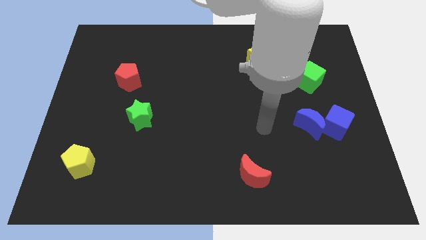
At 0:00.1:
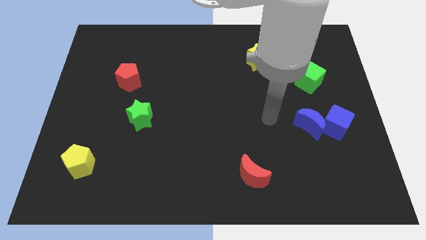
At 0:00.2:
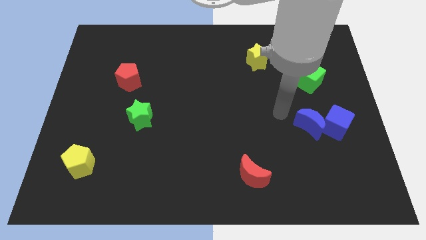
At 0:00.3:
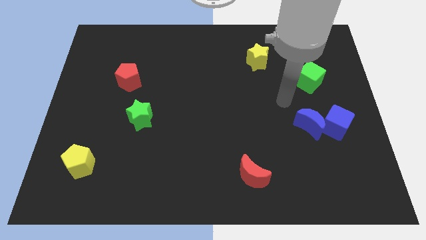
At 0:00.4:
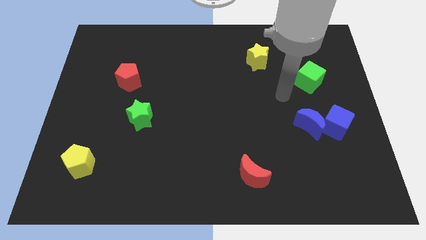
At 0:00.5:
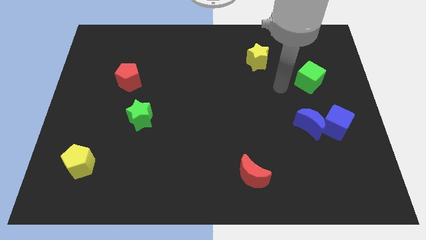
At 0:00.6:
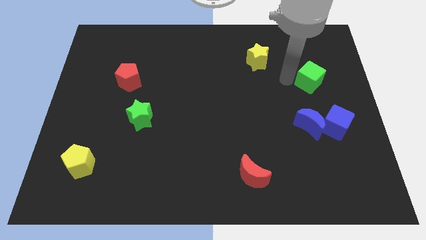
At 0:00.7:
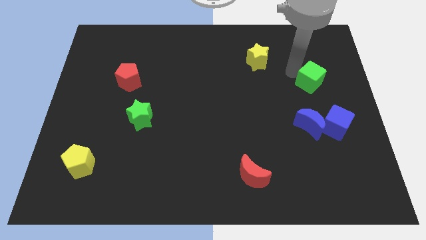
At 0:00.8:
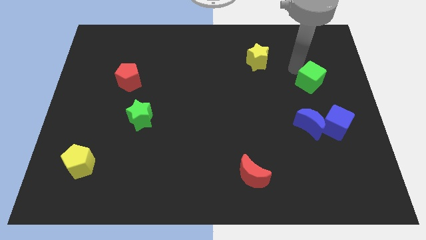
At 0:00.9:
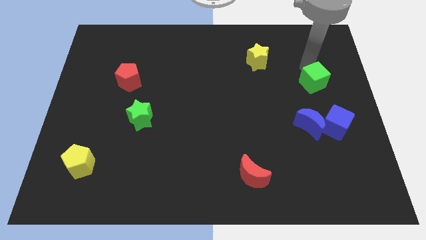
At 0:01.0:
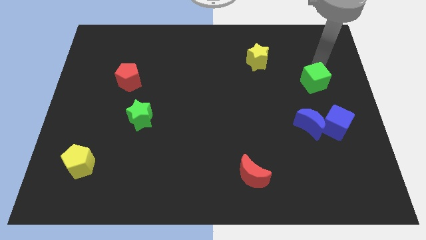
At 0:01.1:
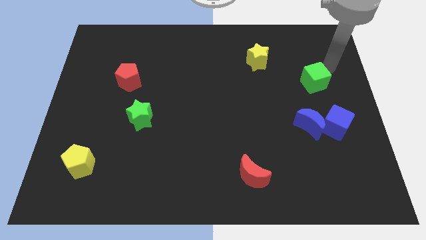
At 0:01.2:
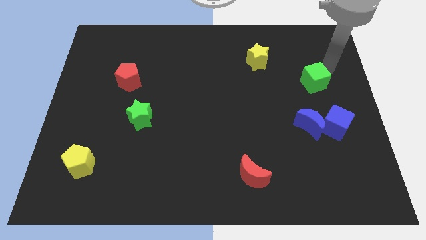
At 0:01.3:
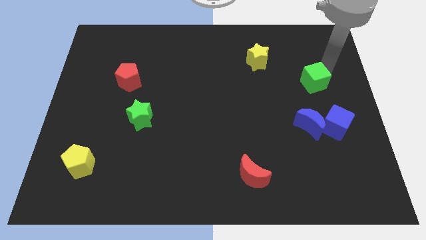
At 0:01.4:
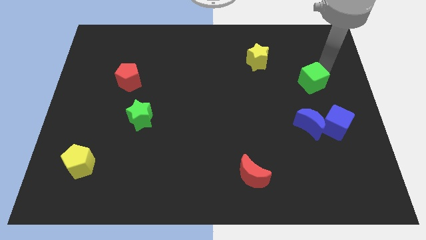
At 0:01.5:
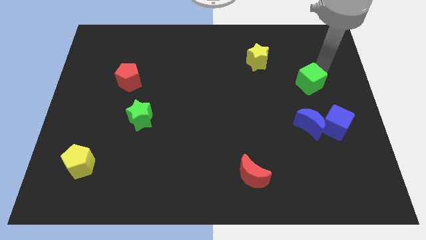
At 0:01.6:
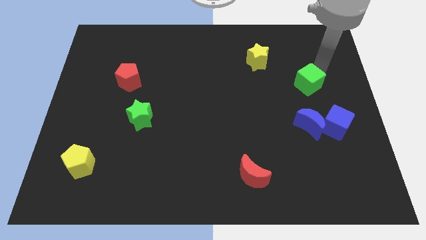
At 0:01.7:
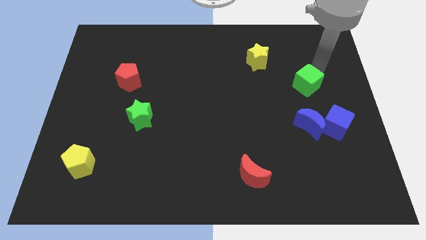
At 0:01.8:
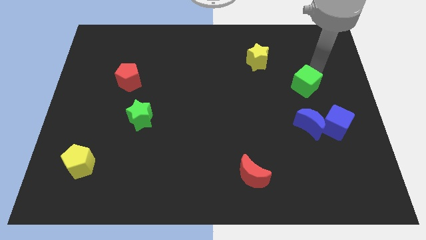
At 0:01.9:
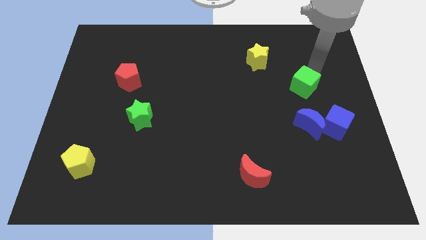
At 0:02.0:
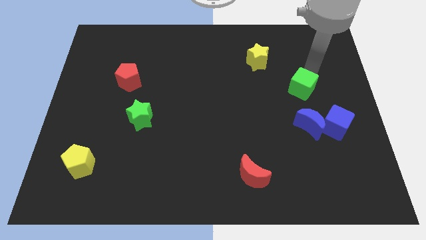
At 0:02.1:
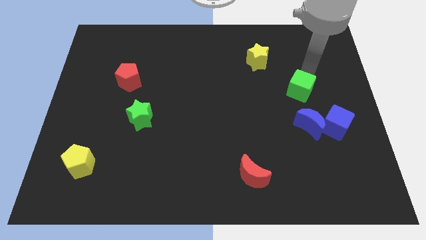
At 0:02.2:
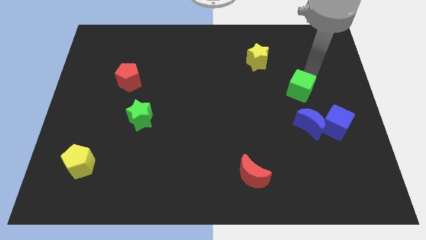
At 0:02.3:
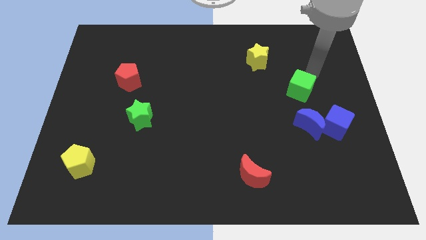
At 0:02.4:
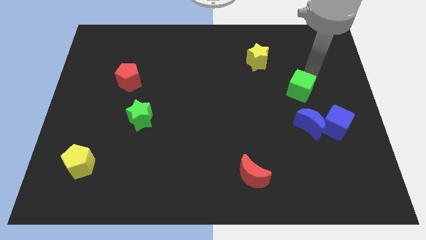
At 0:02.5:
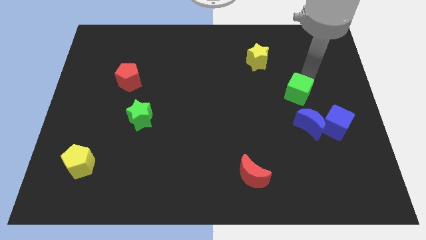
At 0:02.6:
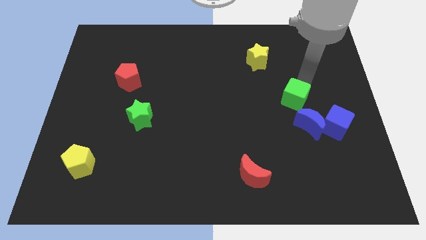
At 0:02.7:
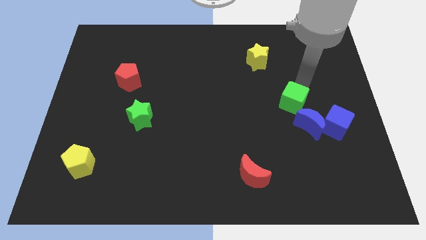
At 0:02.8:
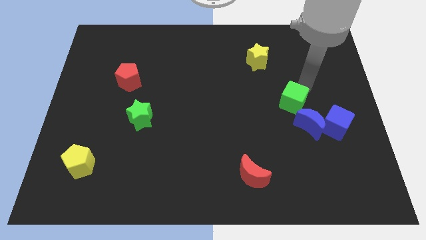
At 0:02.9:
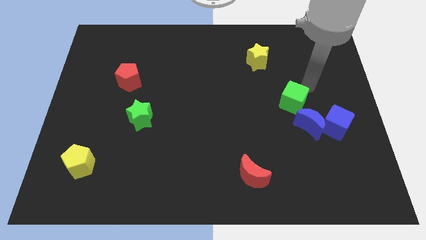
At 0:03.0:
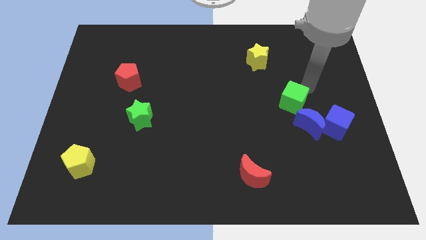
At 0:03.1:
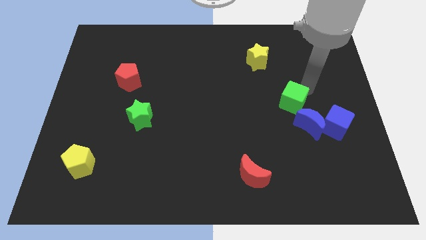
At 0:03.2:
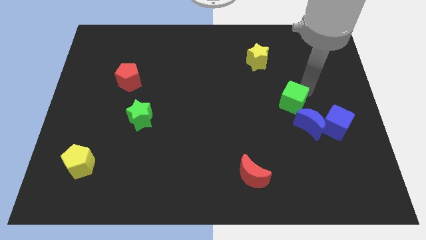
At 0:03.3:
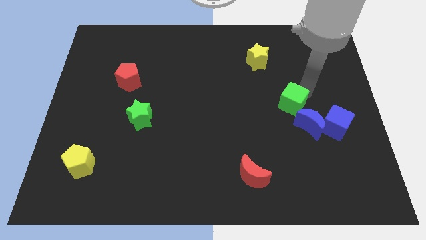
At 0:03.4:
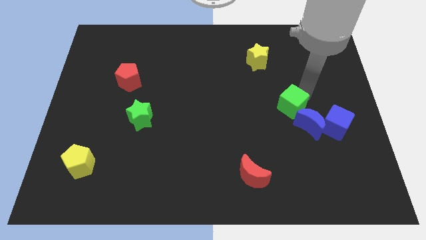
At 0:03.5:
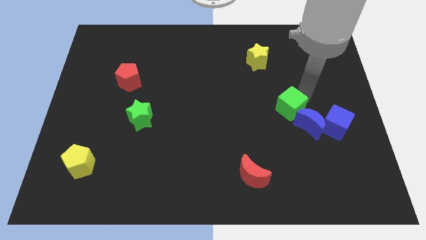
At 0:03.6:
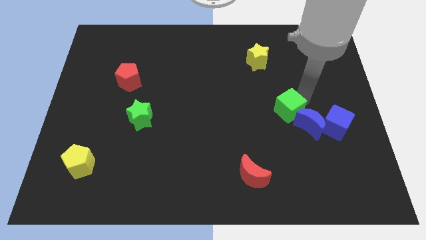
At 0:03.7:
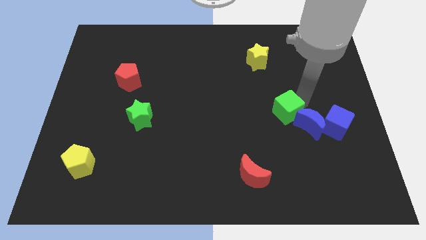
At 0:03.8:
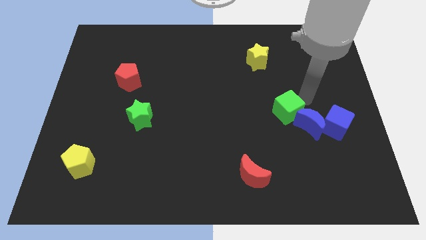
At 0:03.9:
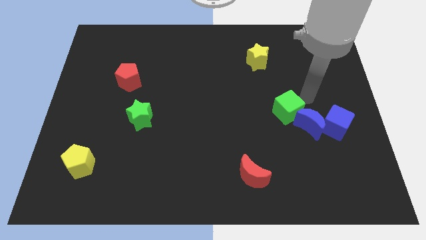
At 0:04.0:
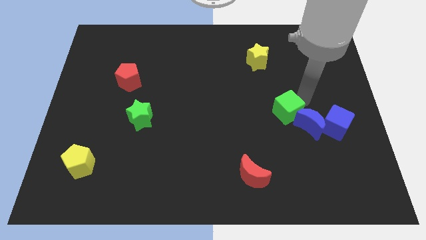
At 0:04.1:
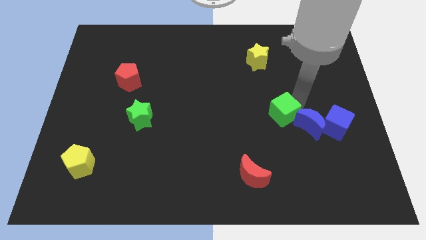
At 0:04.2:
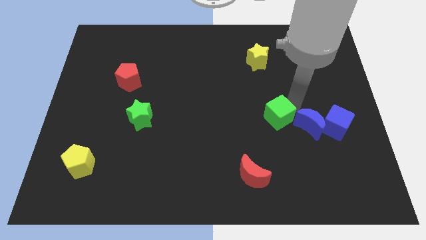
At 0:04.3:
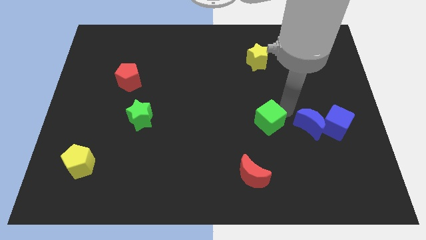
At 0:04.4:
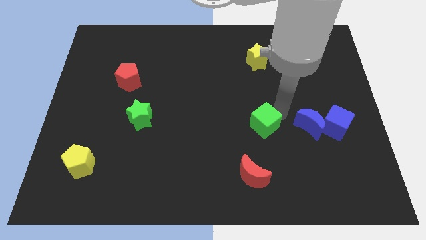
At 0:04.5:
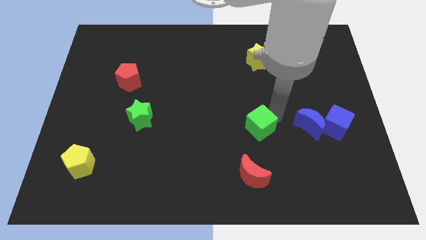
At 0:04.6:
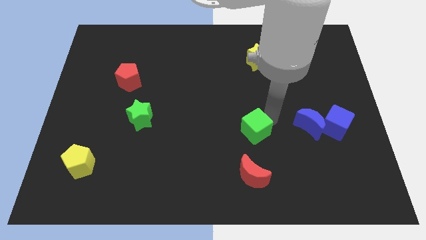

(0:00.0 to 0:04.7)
push the green cube downwards and then left

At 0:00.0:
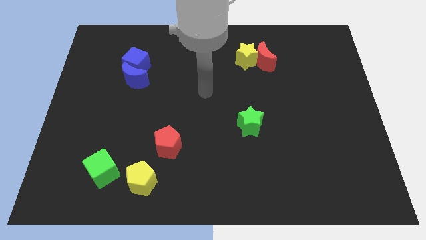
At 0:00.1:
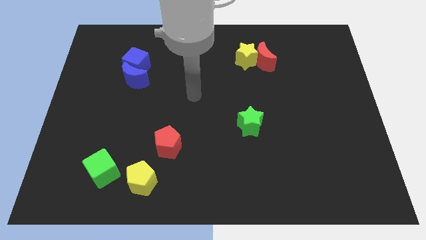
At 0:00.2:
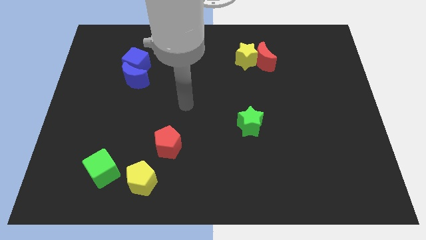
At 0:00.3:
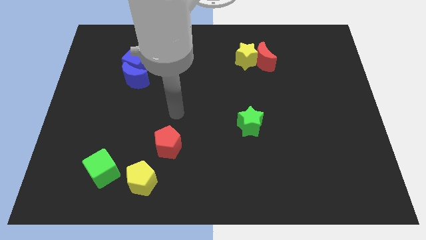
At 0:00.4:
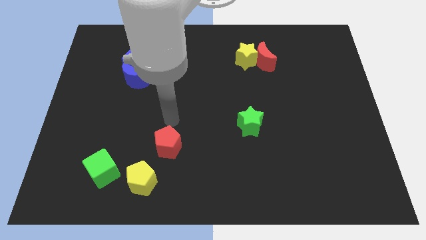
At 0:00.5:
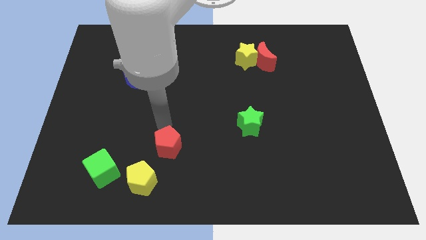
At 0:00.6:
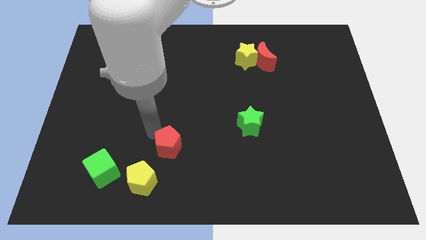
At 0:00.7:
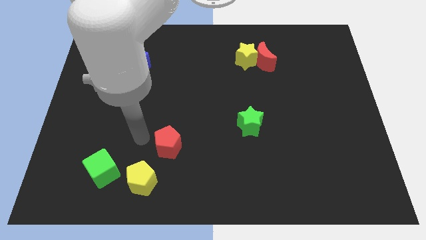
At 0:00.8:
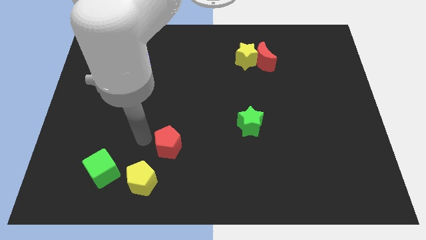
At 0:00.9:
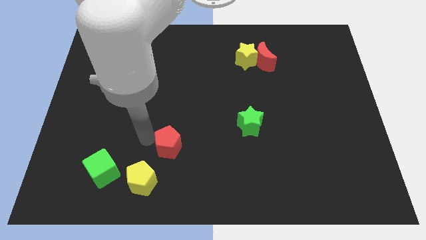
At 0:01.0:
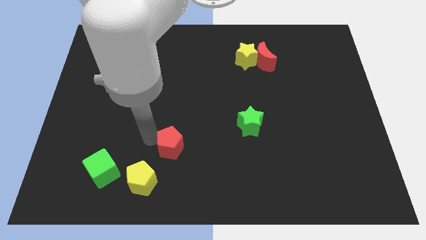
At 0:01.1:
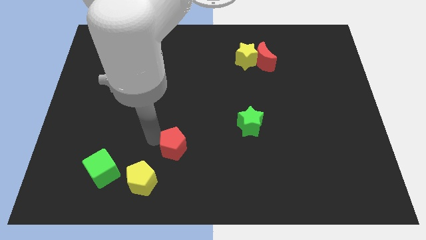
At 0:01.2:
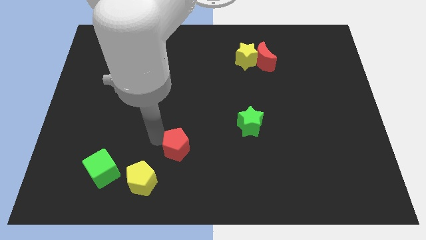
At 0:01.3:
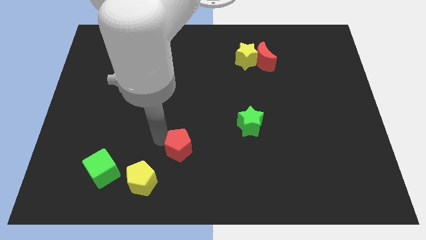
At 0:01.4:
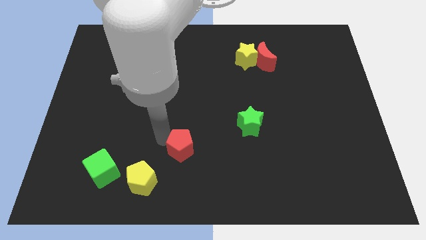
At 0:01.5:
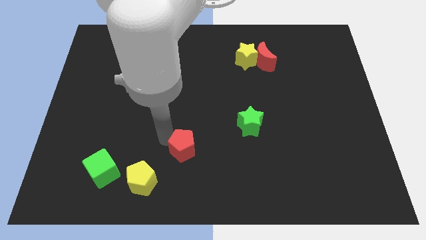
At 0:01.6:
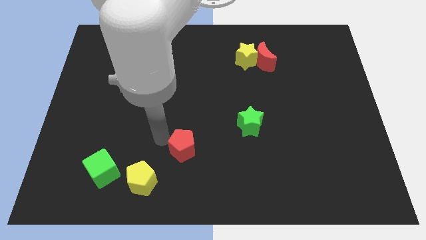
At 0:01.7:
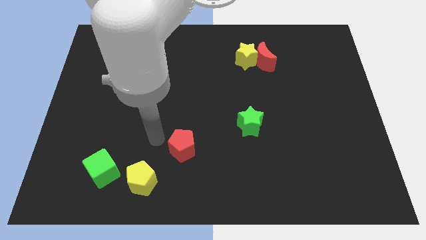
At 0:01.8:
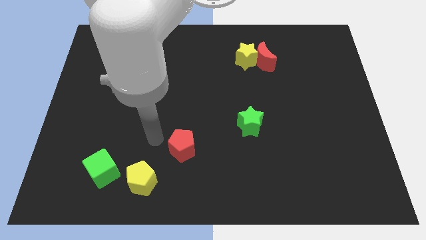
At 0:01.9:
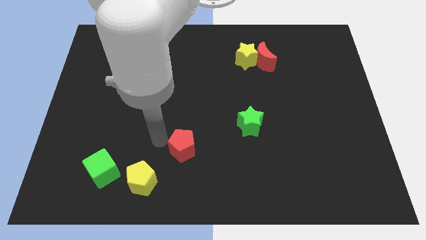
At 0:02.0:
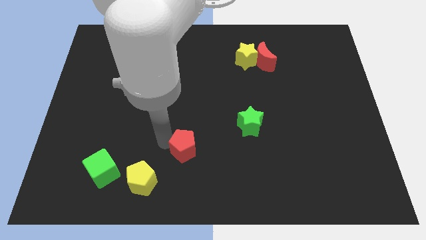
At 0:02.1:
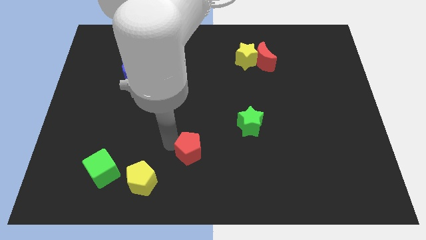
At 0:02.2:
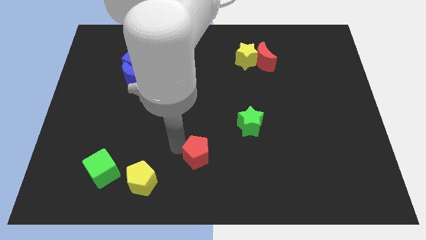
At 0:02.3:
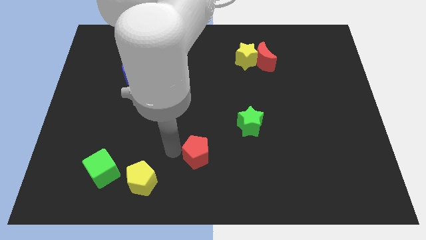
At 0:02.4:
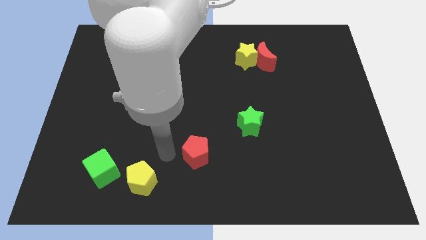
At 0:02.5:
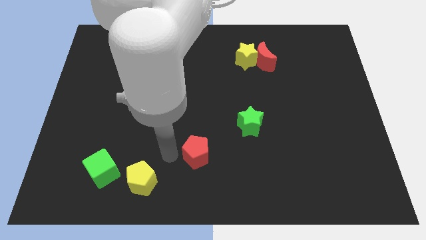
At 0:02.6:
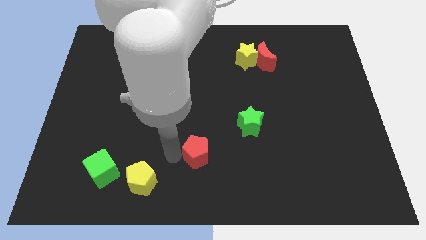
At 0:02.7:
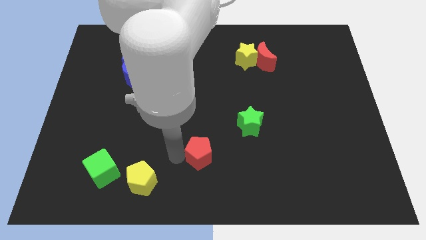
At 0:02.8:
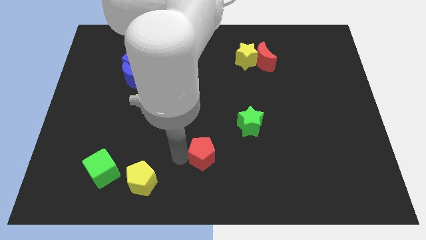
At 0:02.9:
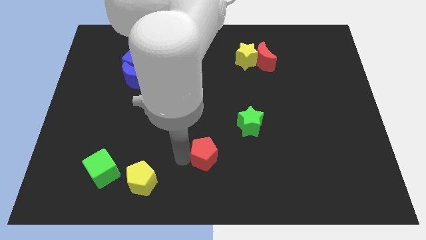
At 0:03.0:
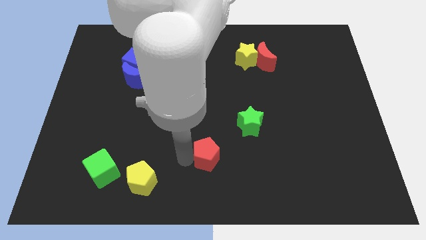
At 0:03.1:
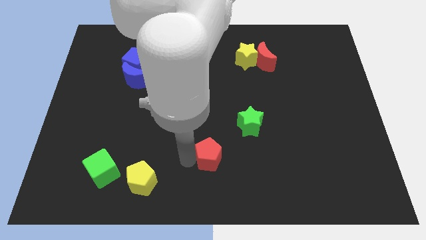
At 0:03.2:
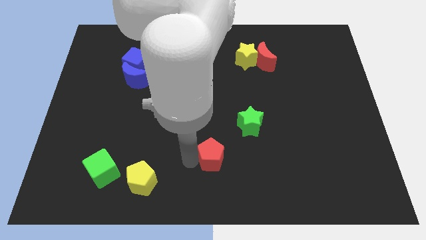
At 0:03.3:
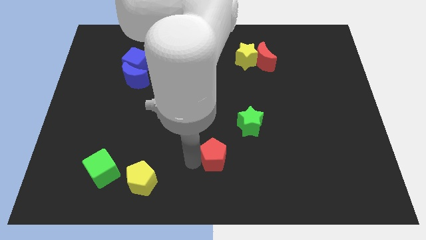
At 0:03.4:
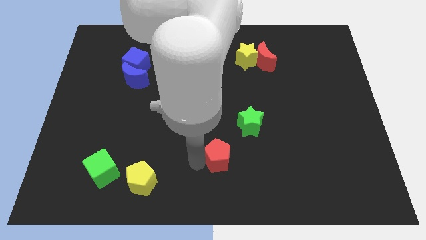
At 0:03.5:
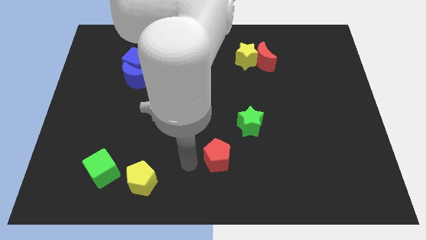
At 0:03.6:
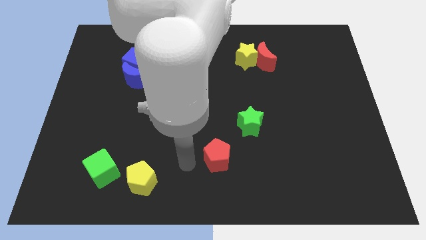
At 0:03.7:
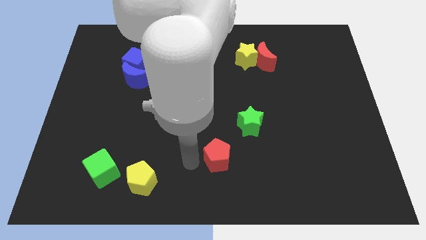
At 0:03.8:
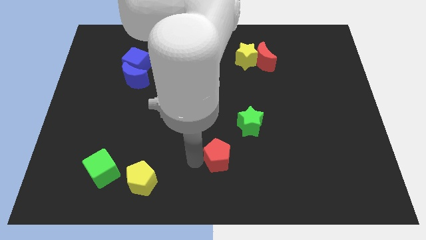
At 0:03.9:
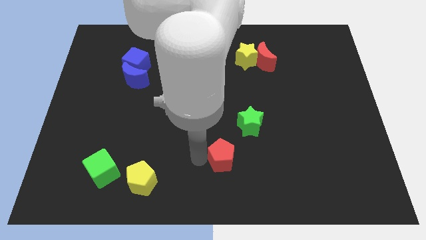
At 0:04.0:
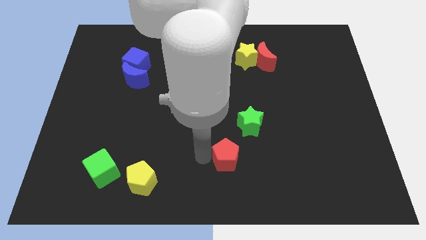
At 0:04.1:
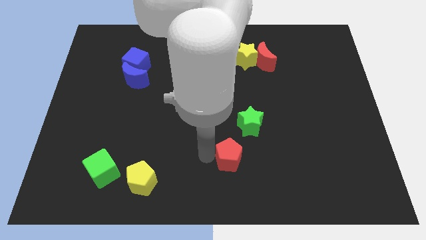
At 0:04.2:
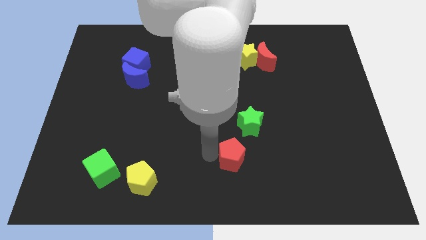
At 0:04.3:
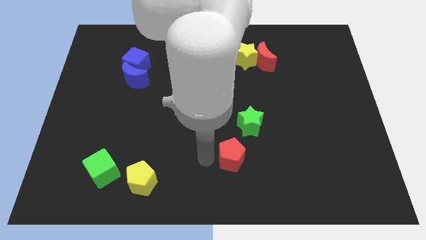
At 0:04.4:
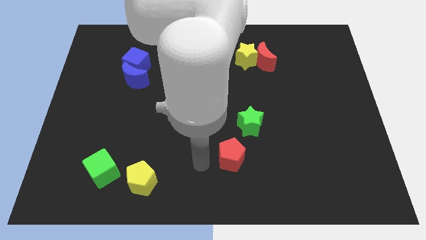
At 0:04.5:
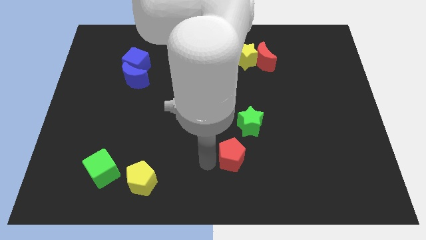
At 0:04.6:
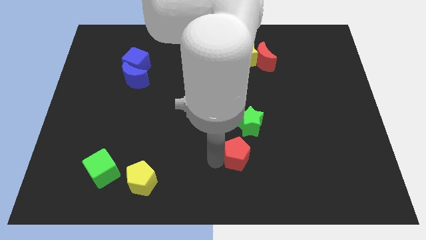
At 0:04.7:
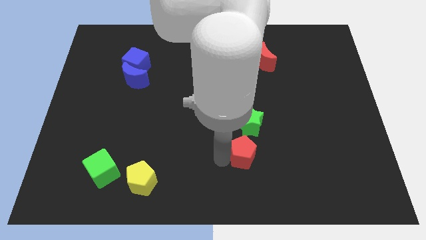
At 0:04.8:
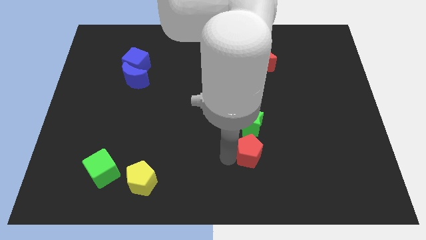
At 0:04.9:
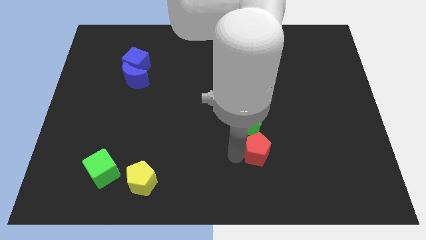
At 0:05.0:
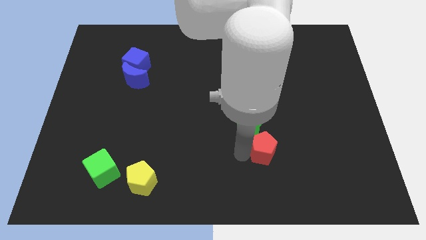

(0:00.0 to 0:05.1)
move the red pentagon to the right
